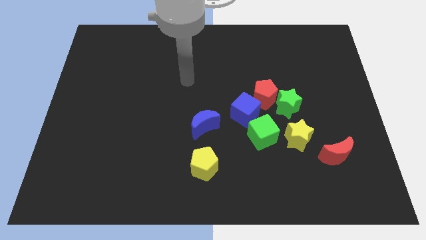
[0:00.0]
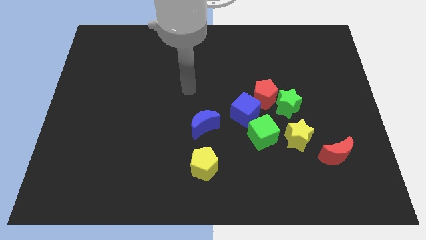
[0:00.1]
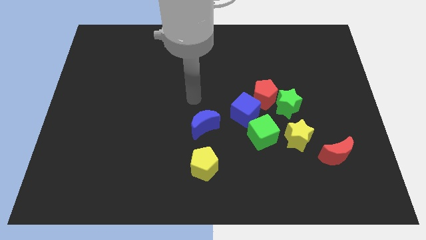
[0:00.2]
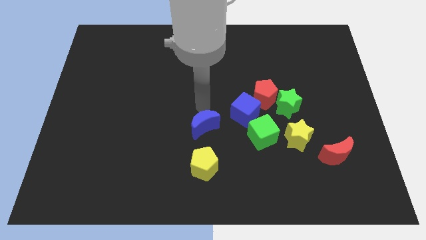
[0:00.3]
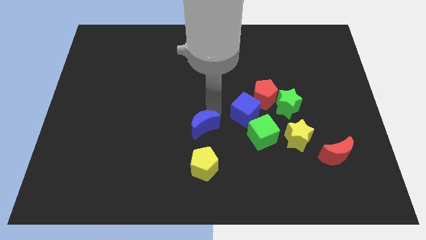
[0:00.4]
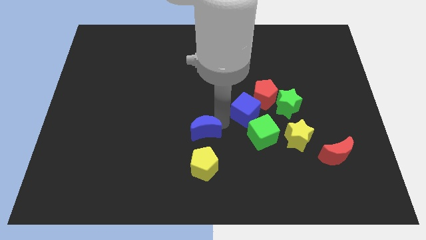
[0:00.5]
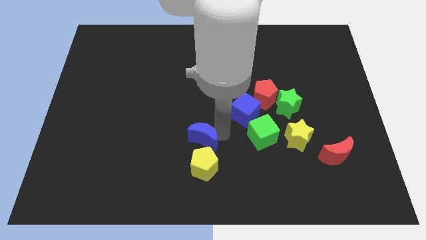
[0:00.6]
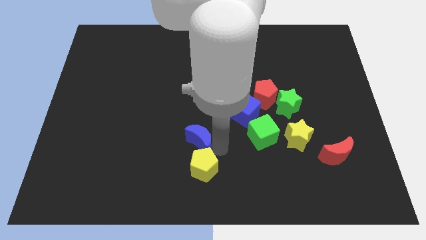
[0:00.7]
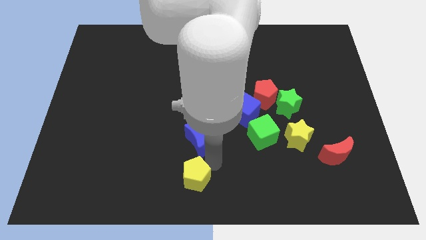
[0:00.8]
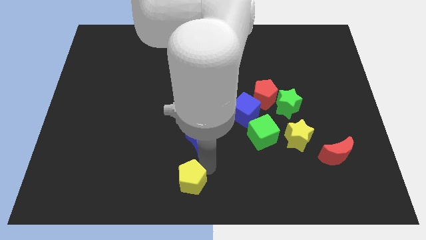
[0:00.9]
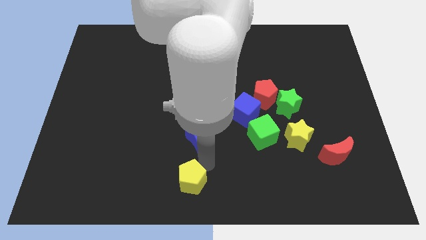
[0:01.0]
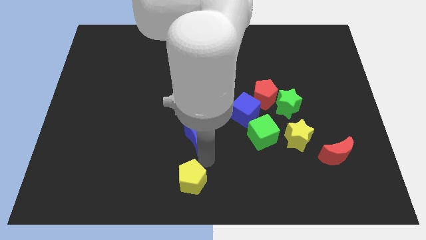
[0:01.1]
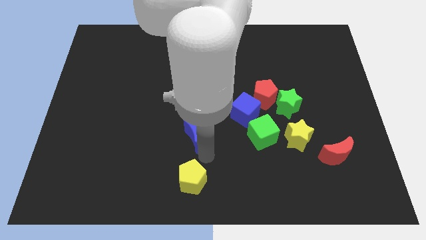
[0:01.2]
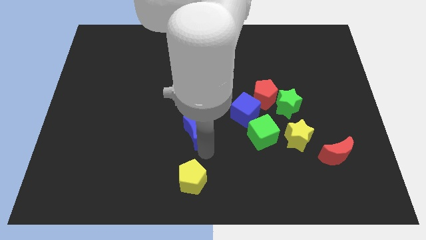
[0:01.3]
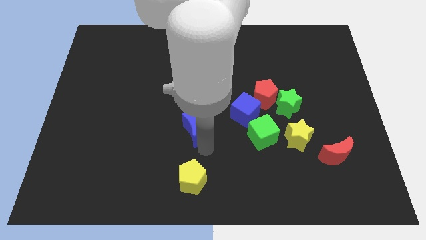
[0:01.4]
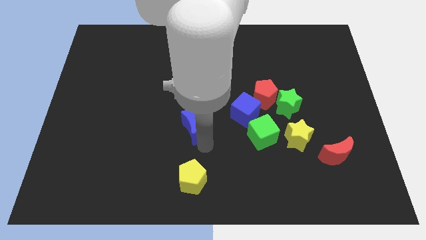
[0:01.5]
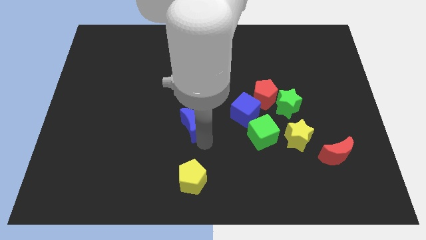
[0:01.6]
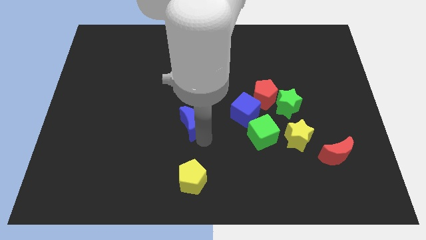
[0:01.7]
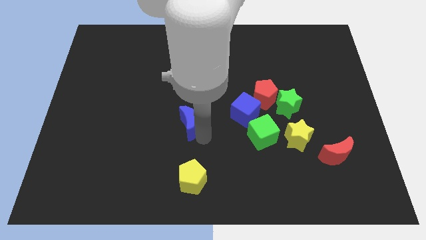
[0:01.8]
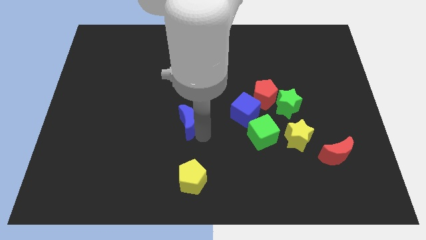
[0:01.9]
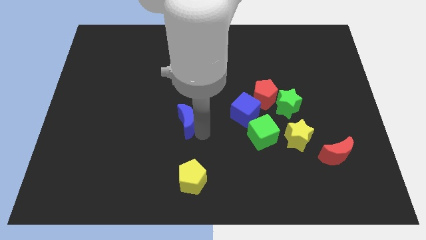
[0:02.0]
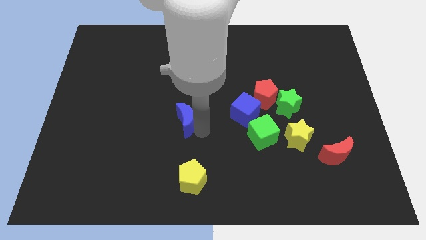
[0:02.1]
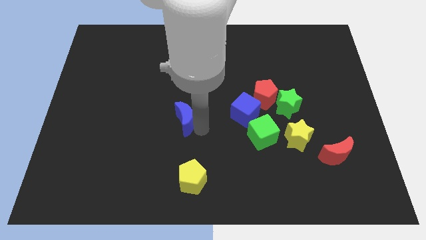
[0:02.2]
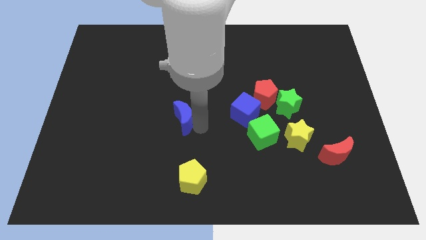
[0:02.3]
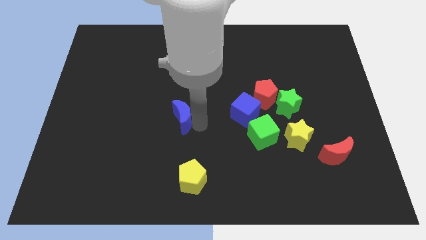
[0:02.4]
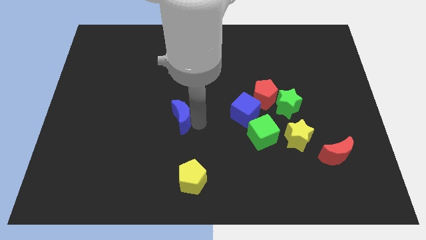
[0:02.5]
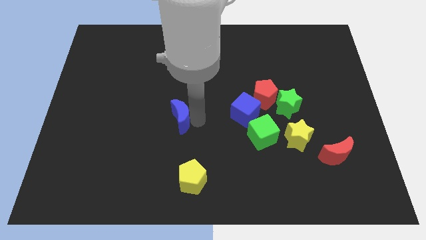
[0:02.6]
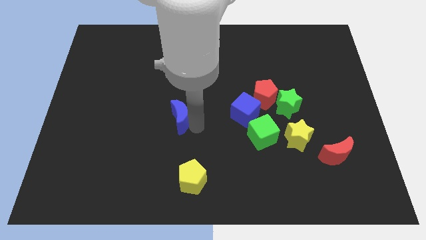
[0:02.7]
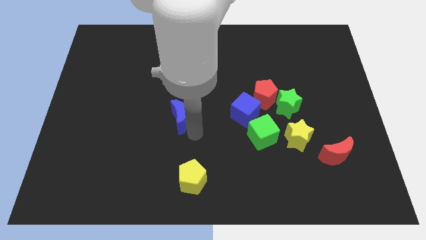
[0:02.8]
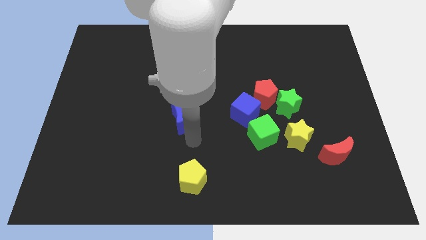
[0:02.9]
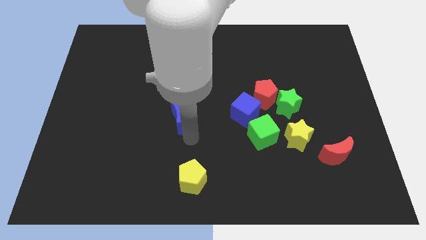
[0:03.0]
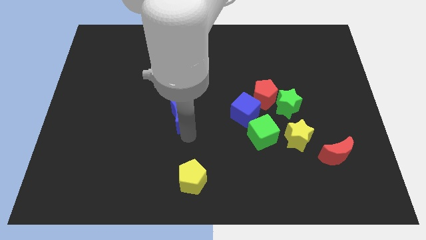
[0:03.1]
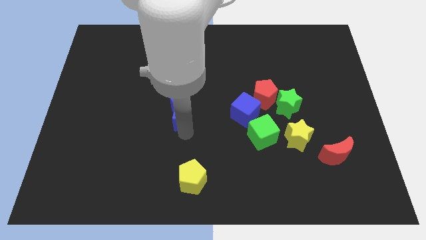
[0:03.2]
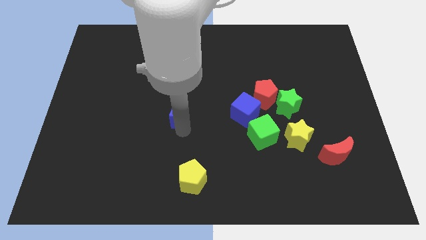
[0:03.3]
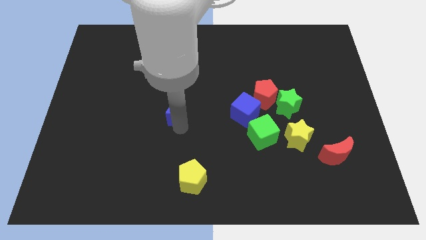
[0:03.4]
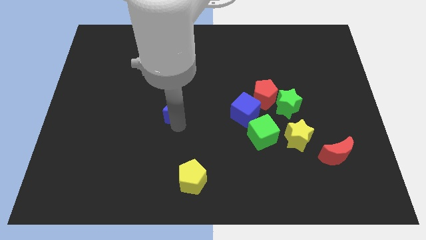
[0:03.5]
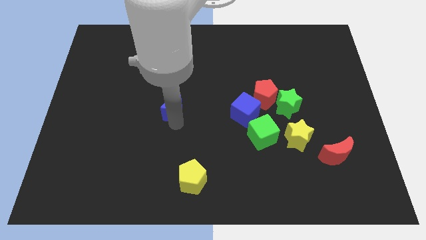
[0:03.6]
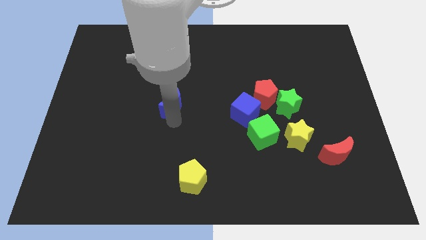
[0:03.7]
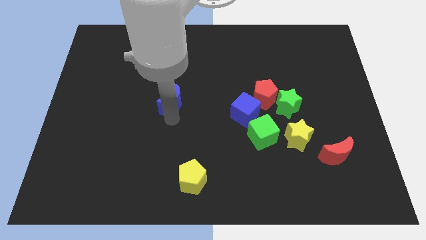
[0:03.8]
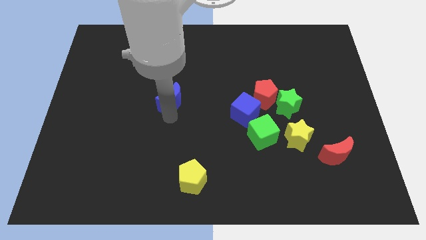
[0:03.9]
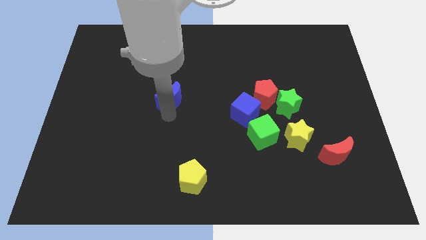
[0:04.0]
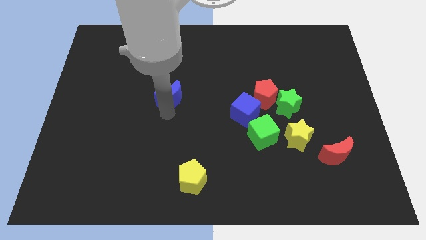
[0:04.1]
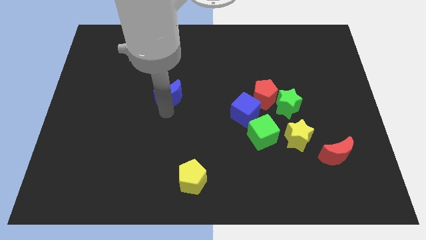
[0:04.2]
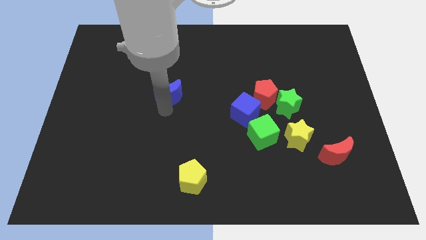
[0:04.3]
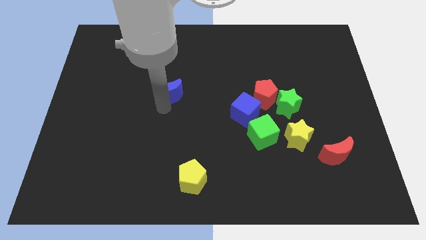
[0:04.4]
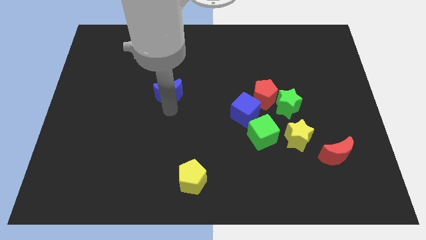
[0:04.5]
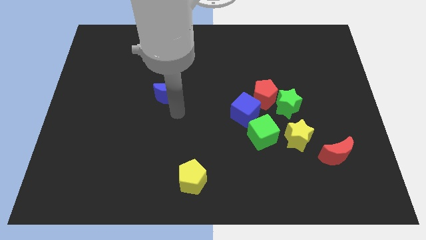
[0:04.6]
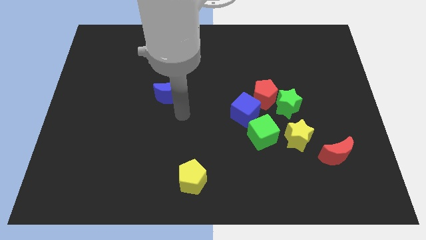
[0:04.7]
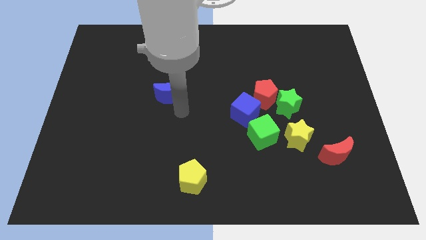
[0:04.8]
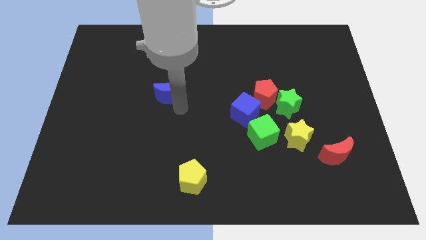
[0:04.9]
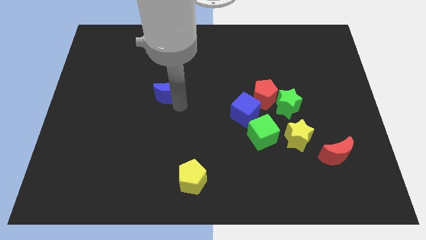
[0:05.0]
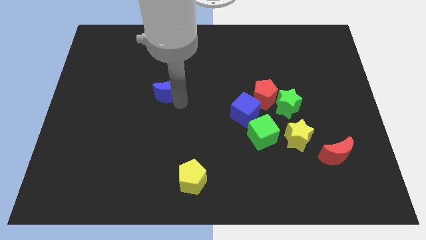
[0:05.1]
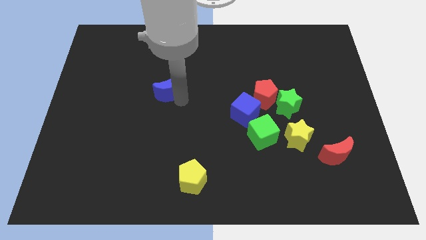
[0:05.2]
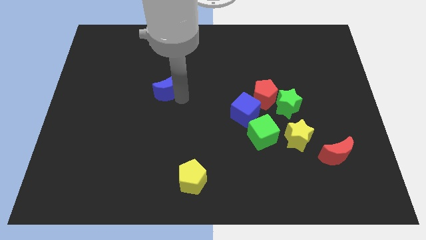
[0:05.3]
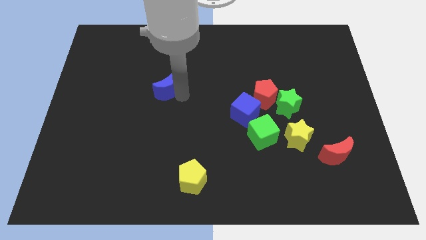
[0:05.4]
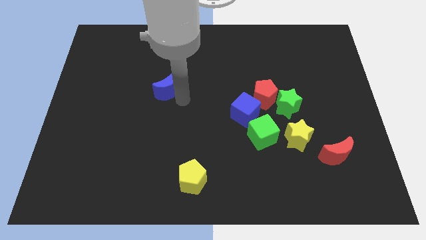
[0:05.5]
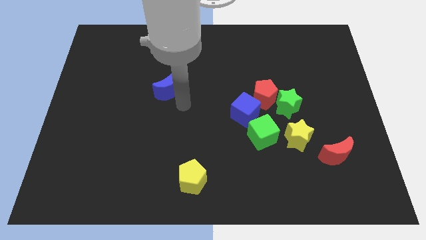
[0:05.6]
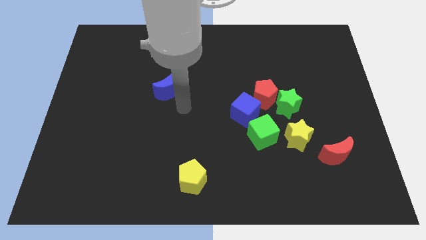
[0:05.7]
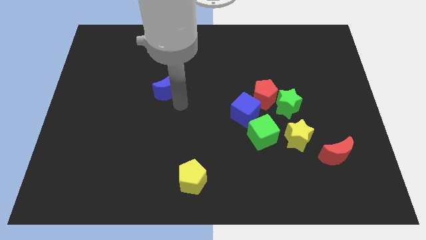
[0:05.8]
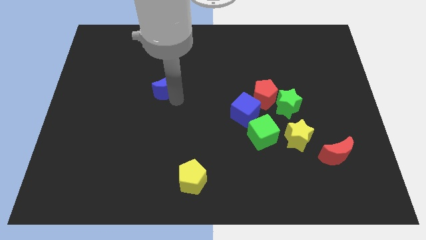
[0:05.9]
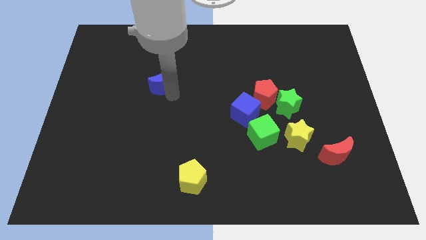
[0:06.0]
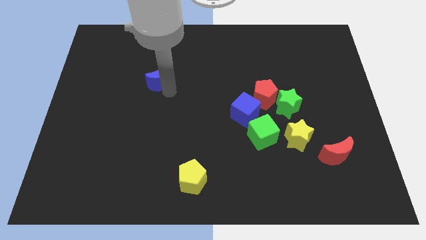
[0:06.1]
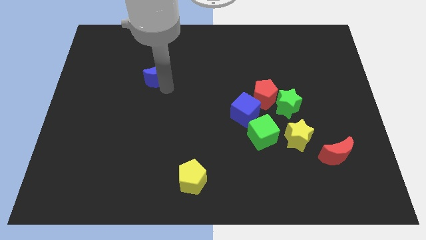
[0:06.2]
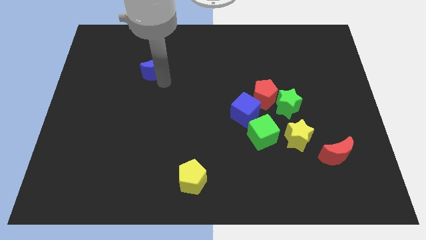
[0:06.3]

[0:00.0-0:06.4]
slide the blue moon diagonally upwards and left

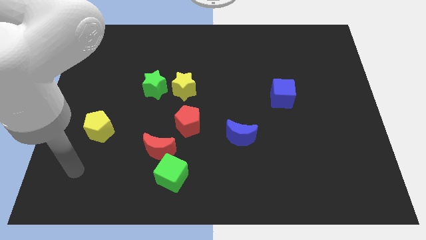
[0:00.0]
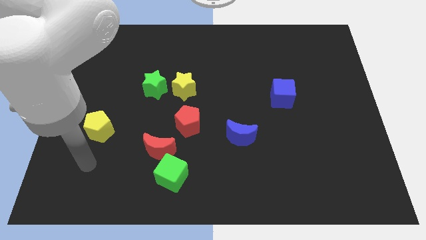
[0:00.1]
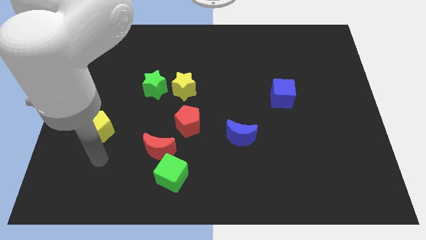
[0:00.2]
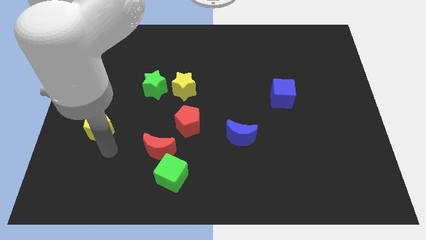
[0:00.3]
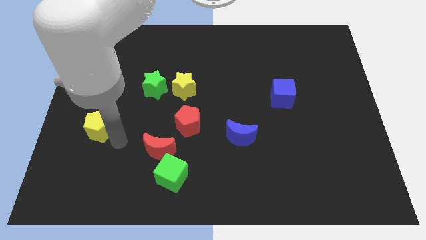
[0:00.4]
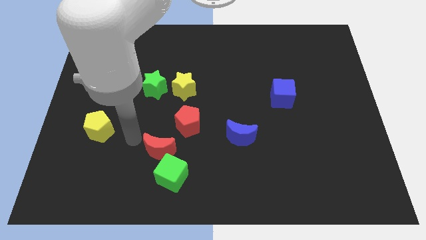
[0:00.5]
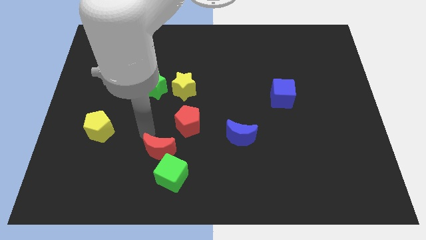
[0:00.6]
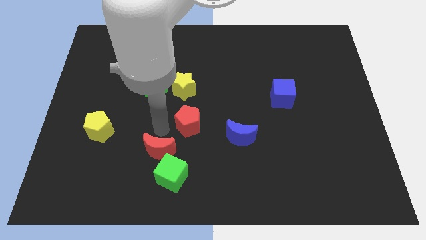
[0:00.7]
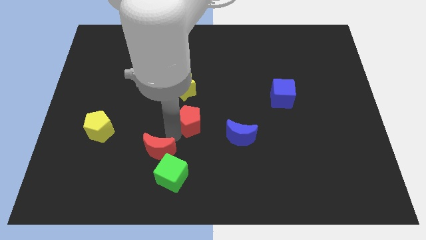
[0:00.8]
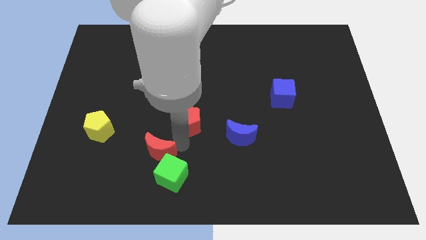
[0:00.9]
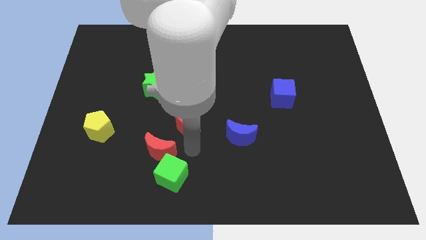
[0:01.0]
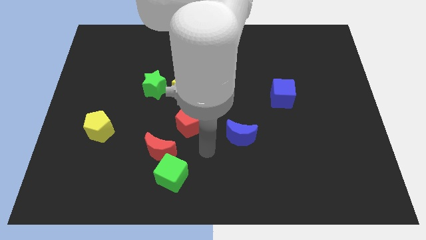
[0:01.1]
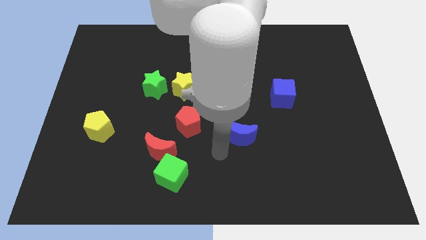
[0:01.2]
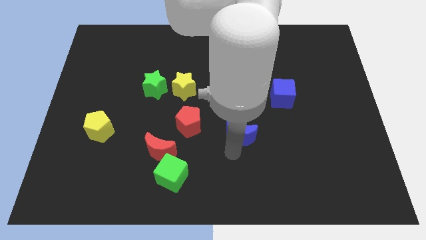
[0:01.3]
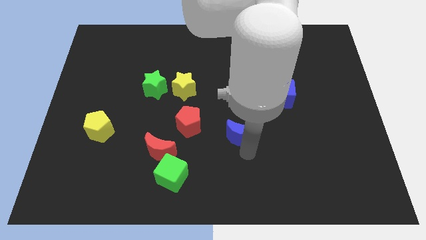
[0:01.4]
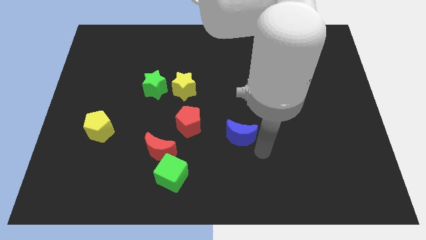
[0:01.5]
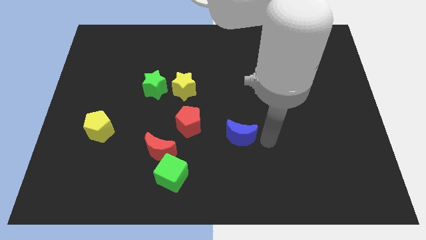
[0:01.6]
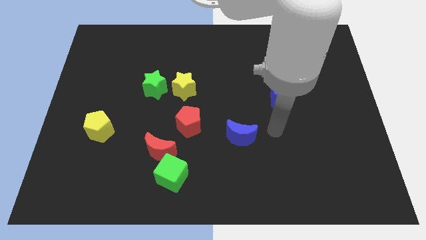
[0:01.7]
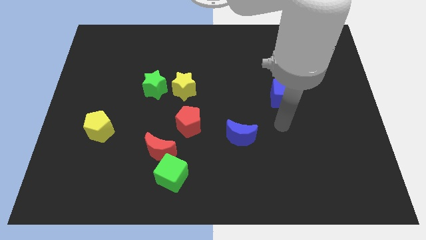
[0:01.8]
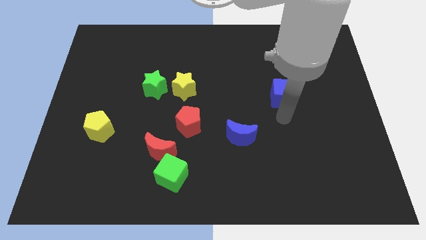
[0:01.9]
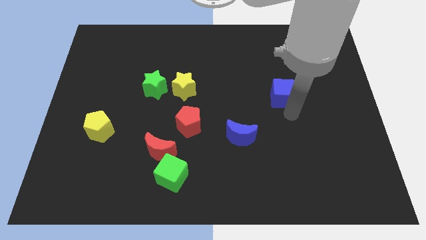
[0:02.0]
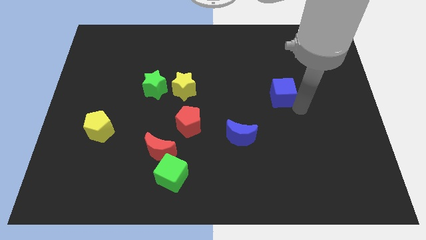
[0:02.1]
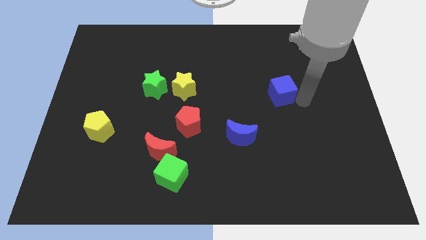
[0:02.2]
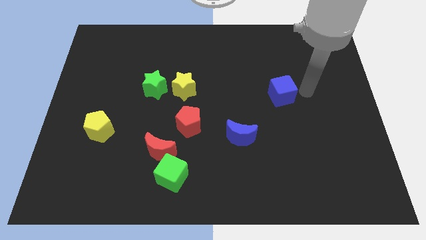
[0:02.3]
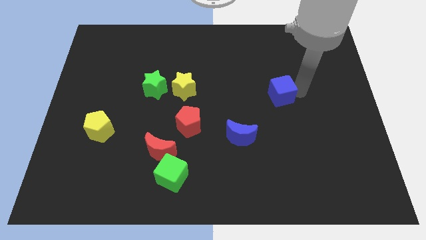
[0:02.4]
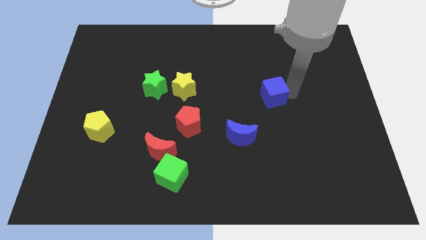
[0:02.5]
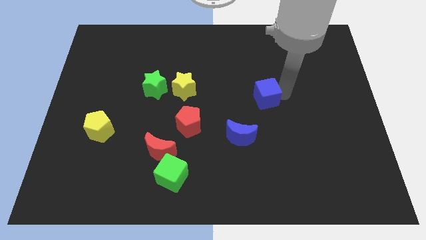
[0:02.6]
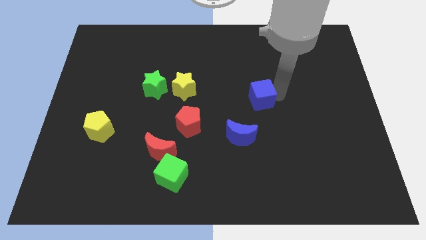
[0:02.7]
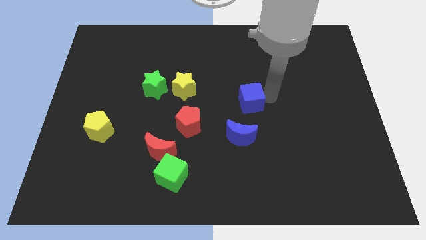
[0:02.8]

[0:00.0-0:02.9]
slide the blue cube left a little
